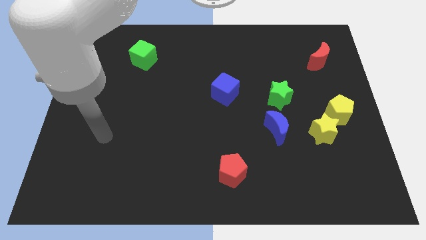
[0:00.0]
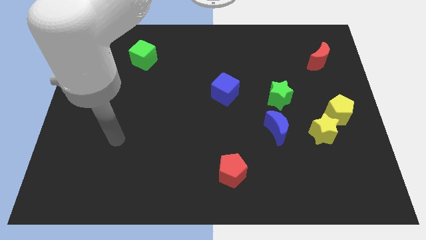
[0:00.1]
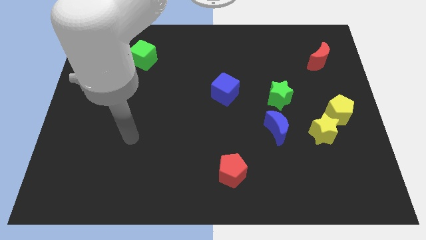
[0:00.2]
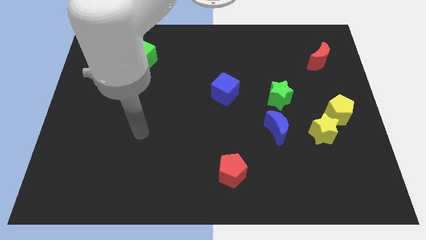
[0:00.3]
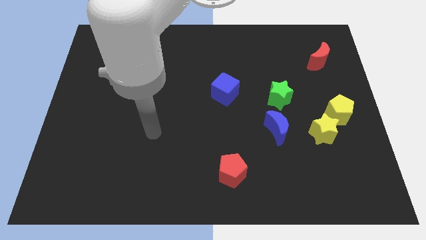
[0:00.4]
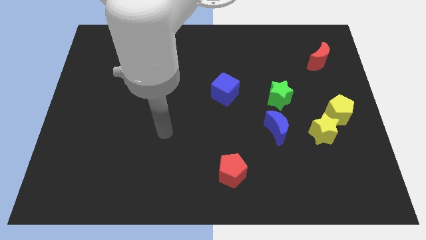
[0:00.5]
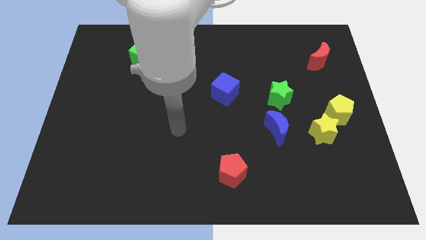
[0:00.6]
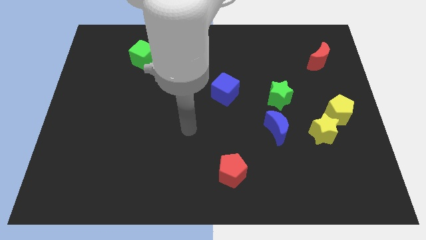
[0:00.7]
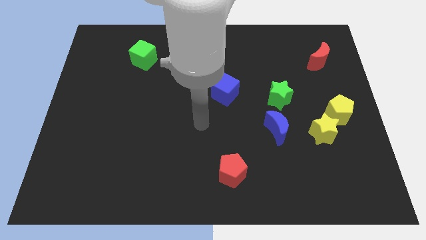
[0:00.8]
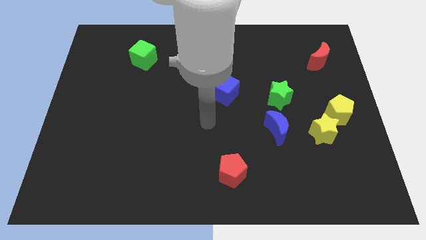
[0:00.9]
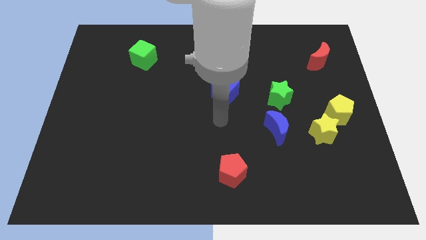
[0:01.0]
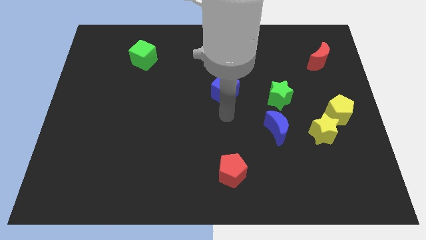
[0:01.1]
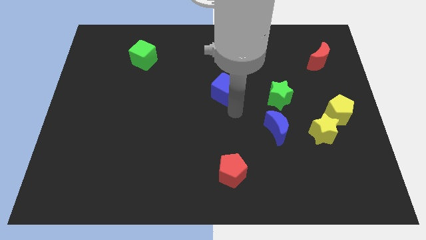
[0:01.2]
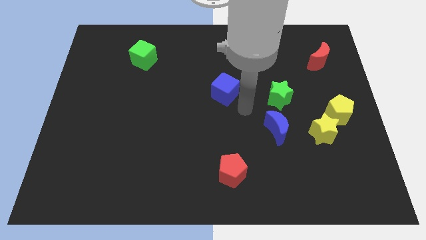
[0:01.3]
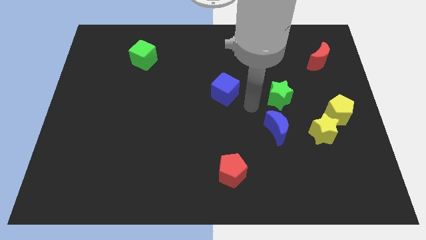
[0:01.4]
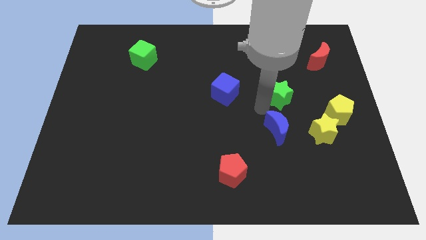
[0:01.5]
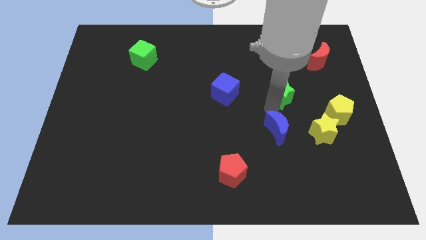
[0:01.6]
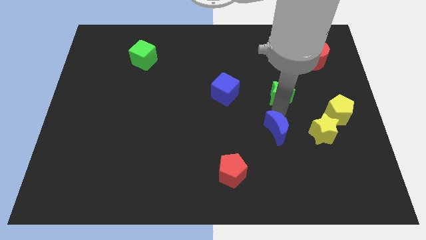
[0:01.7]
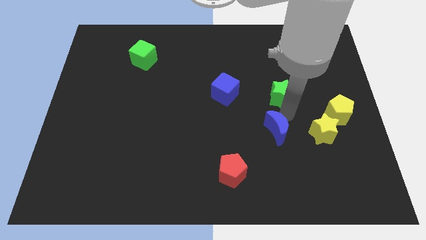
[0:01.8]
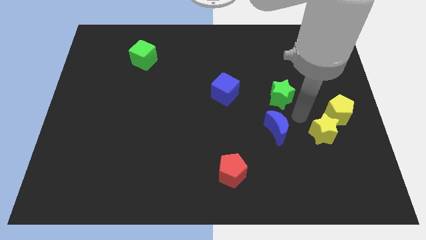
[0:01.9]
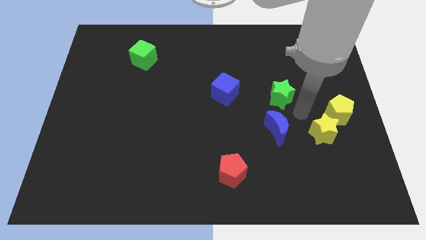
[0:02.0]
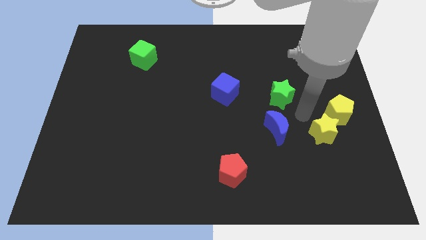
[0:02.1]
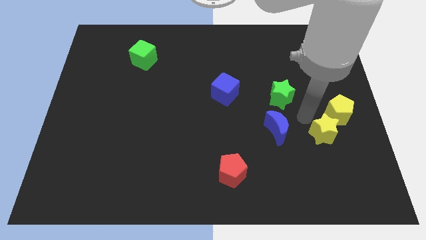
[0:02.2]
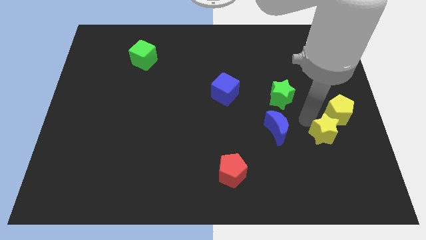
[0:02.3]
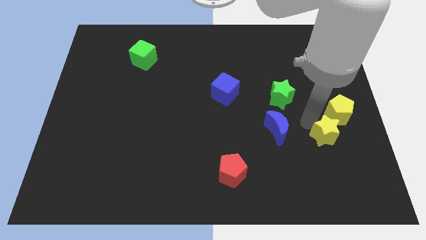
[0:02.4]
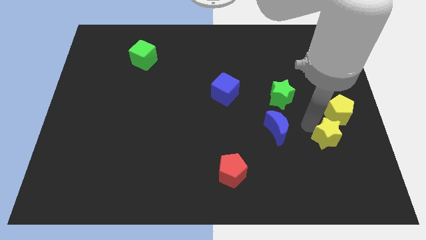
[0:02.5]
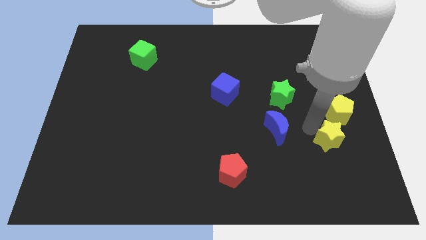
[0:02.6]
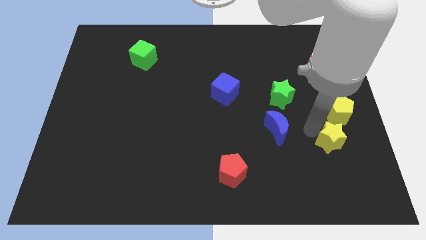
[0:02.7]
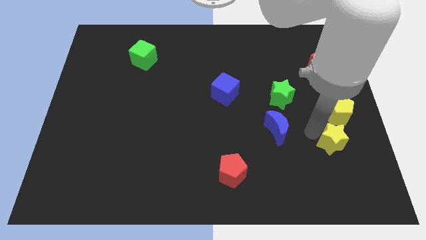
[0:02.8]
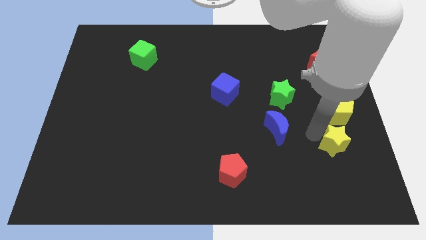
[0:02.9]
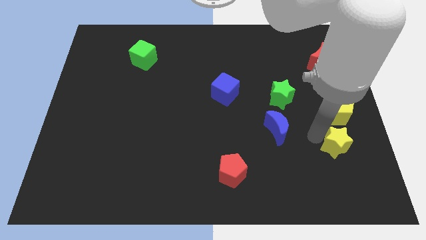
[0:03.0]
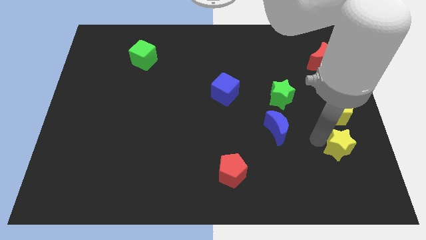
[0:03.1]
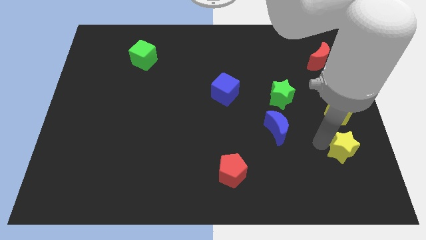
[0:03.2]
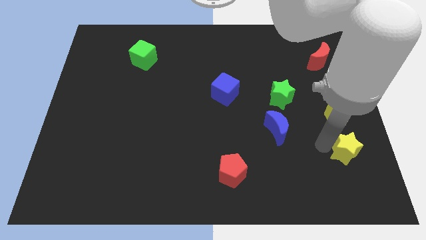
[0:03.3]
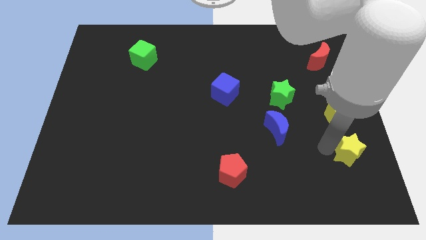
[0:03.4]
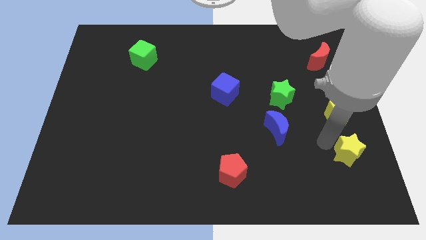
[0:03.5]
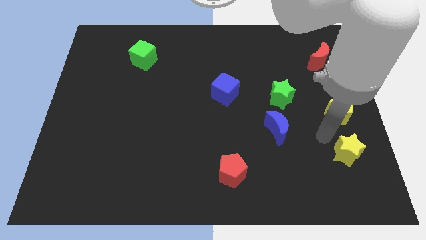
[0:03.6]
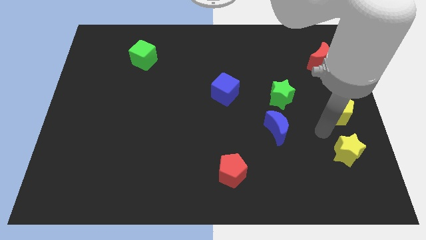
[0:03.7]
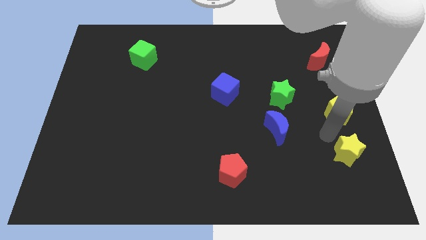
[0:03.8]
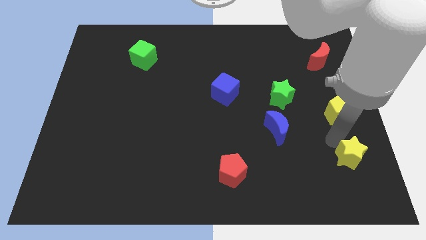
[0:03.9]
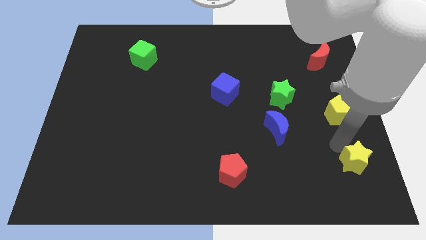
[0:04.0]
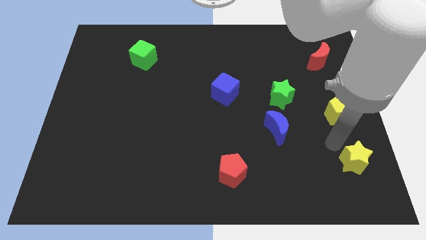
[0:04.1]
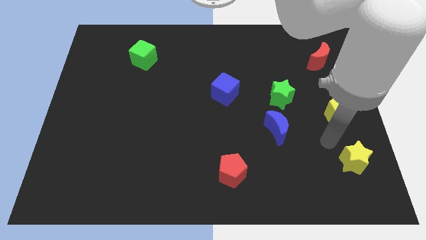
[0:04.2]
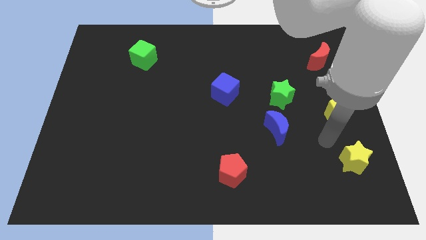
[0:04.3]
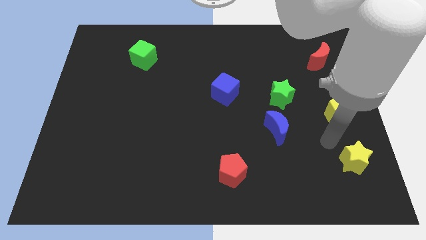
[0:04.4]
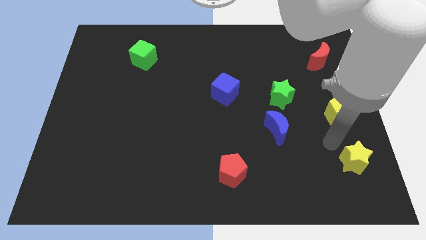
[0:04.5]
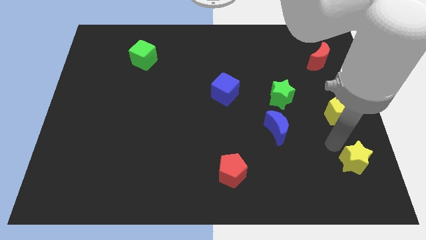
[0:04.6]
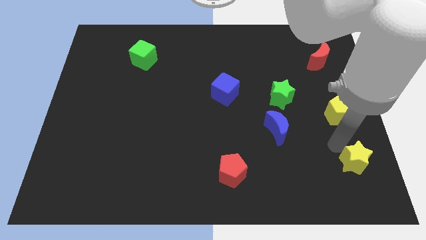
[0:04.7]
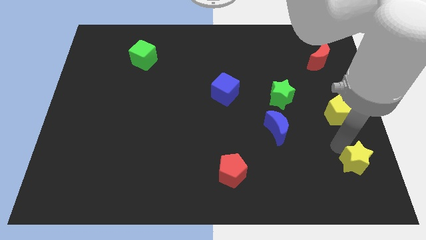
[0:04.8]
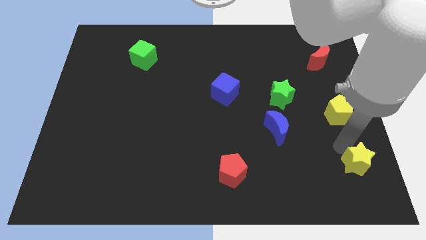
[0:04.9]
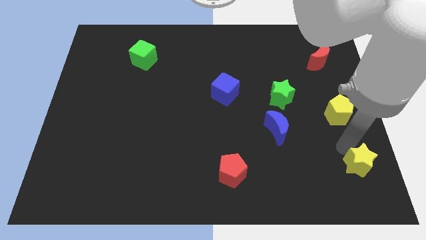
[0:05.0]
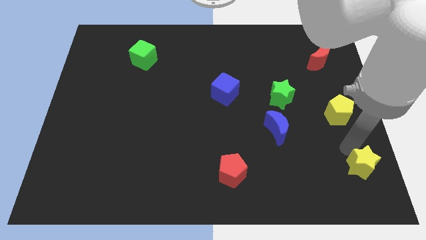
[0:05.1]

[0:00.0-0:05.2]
move the yellow star to the lower right corner

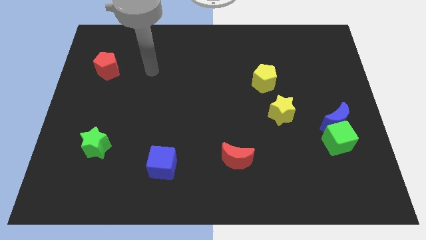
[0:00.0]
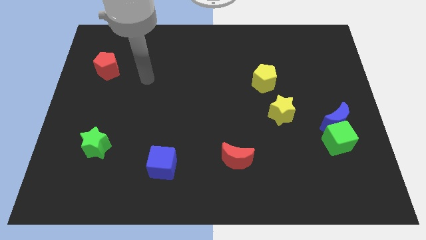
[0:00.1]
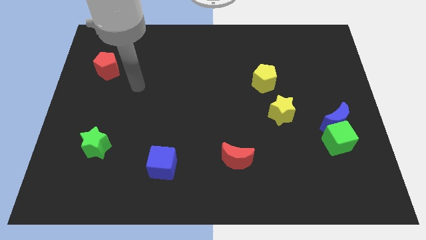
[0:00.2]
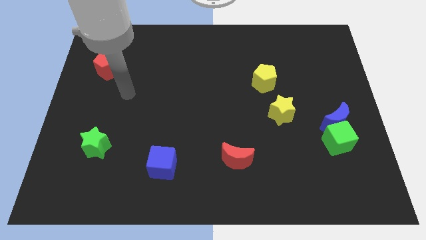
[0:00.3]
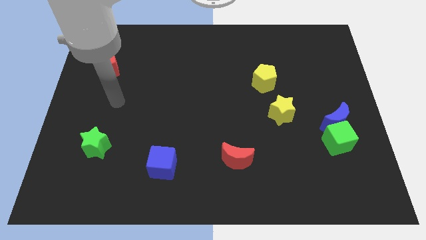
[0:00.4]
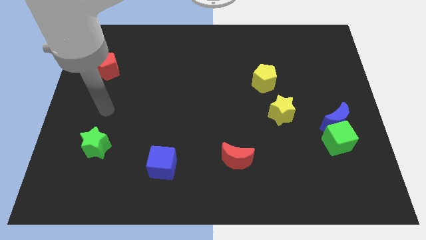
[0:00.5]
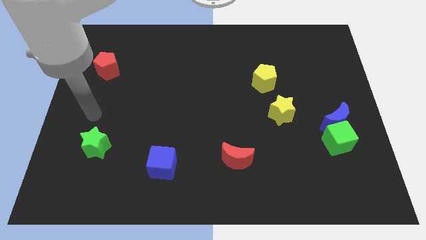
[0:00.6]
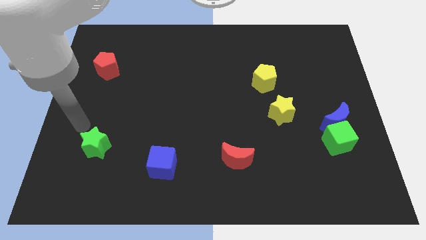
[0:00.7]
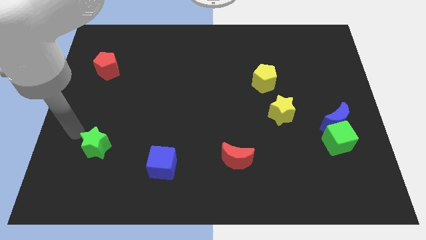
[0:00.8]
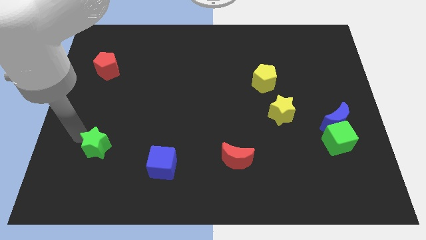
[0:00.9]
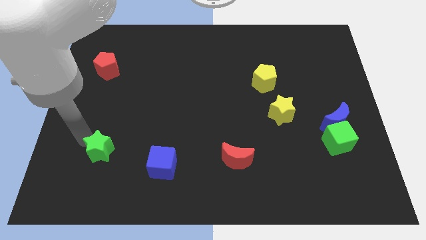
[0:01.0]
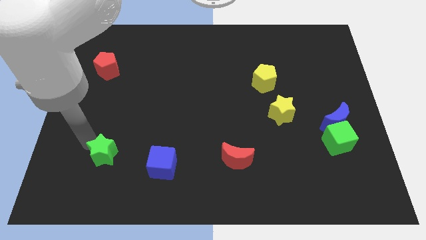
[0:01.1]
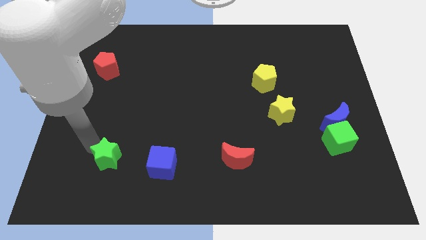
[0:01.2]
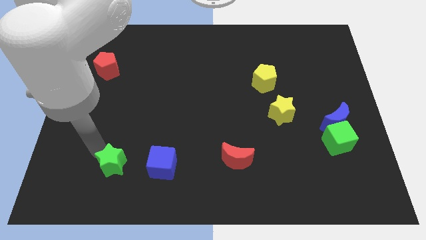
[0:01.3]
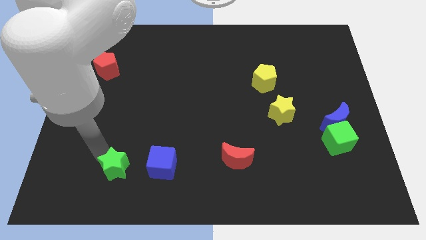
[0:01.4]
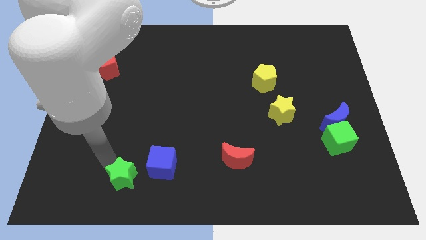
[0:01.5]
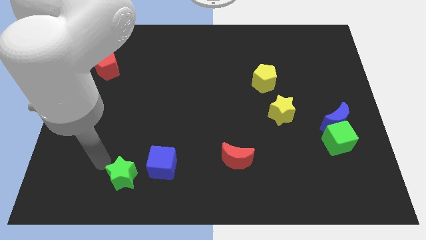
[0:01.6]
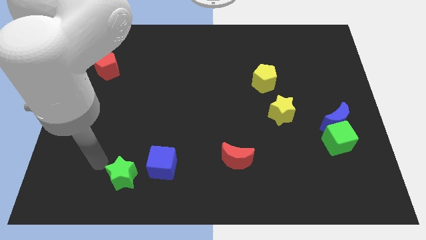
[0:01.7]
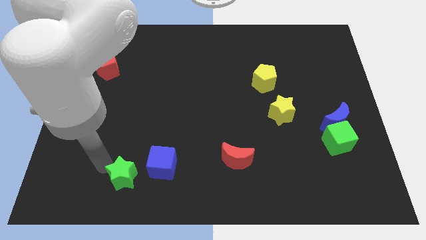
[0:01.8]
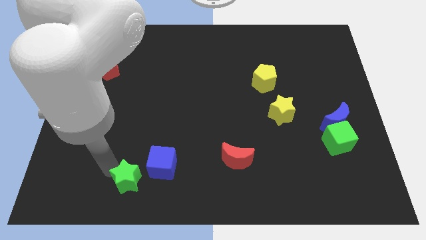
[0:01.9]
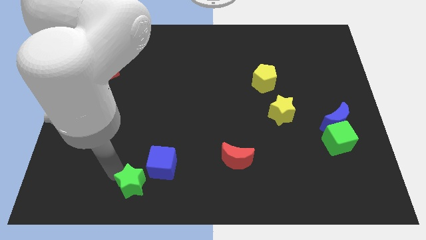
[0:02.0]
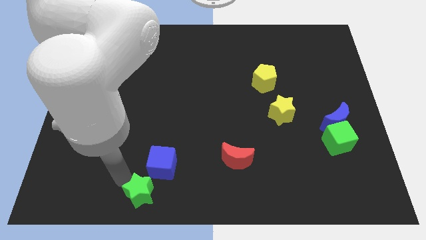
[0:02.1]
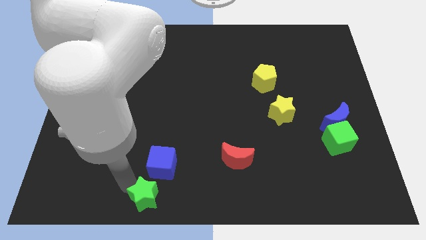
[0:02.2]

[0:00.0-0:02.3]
move the green star to the bottom
